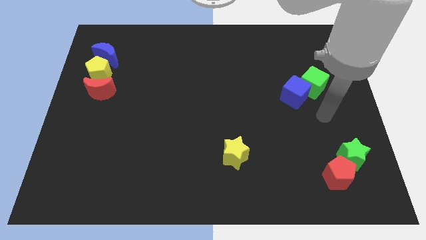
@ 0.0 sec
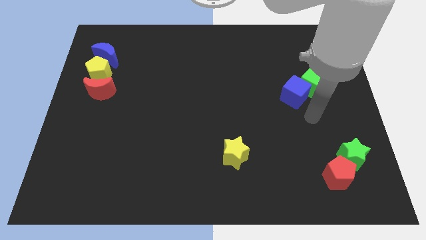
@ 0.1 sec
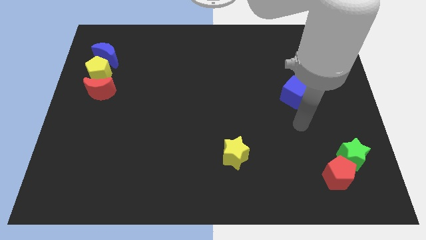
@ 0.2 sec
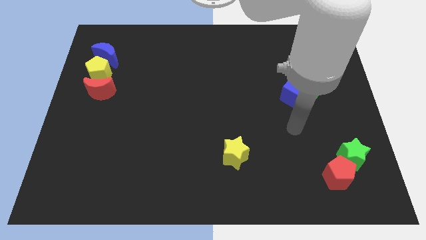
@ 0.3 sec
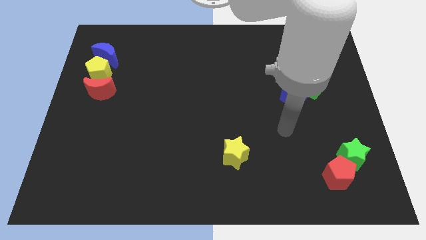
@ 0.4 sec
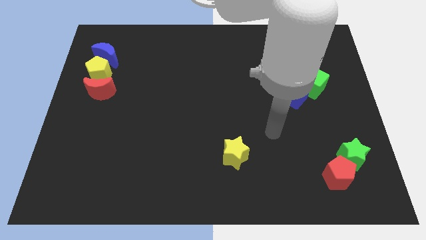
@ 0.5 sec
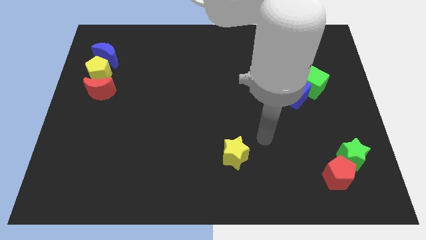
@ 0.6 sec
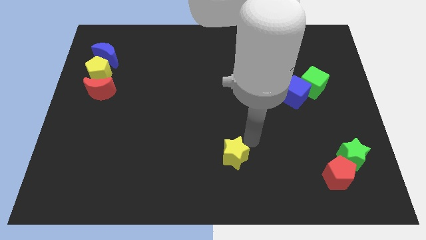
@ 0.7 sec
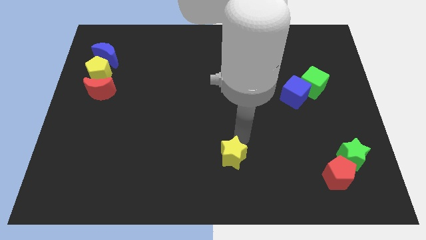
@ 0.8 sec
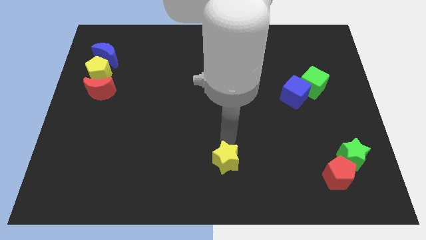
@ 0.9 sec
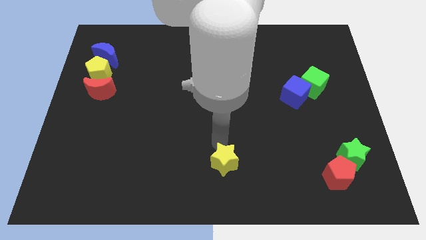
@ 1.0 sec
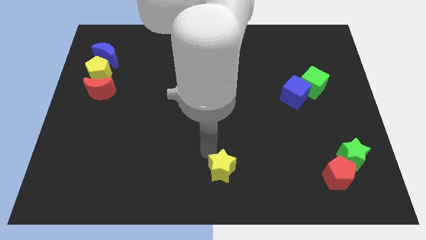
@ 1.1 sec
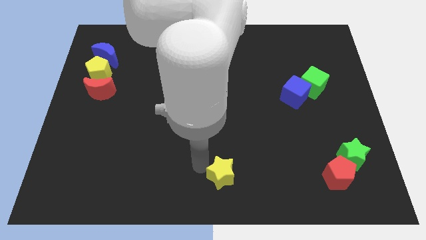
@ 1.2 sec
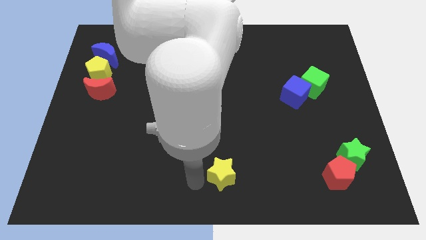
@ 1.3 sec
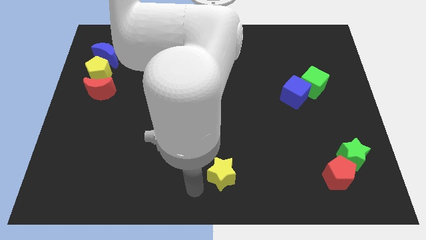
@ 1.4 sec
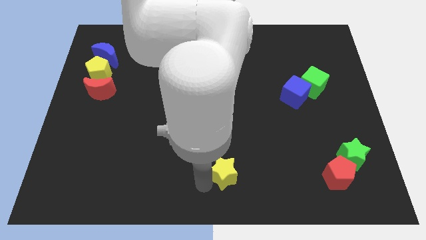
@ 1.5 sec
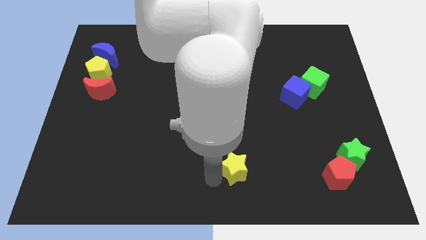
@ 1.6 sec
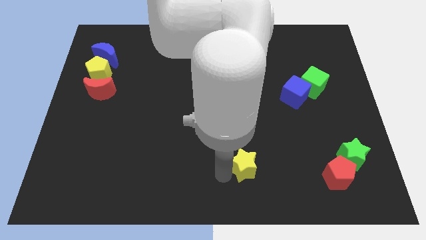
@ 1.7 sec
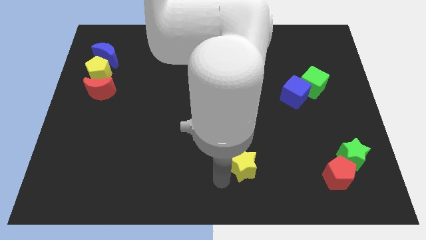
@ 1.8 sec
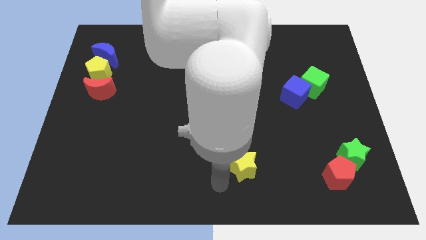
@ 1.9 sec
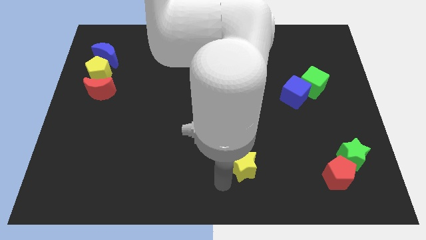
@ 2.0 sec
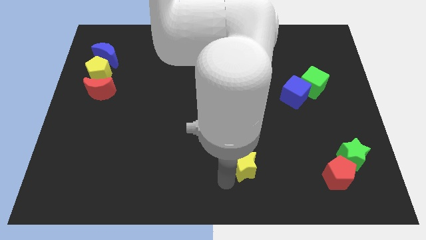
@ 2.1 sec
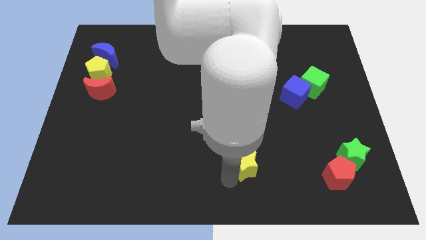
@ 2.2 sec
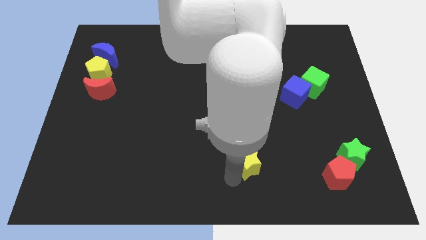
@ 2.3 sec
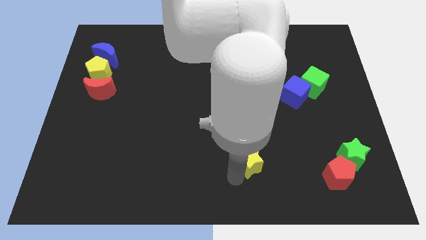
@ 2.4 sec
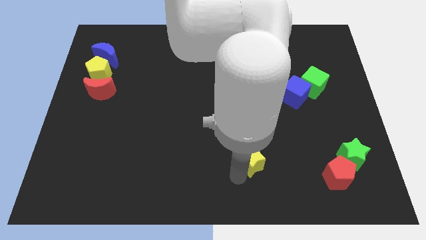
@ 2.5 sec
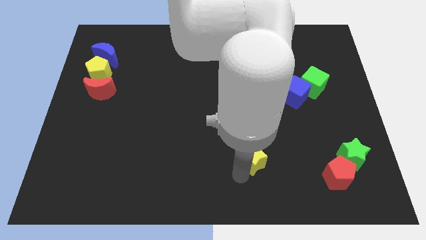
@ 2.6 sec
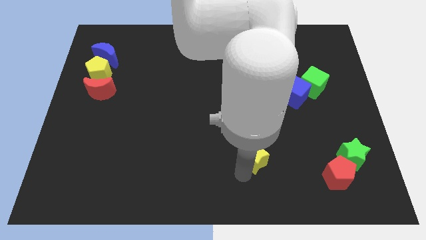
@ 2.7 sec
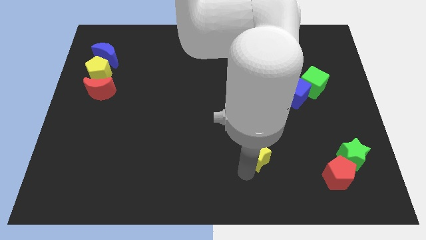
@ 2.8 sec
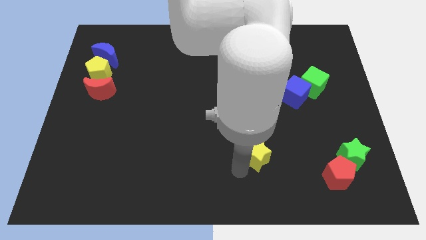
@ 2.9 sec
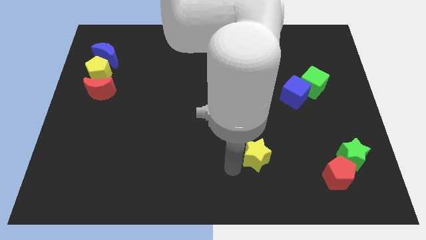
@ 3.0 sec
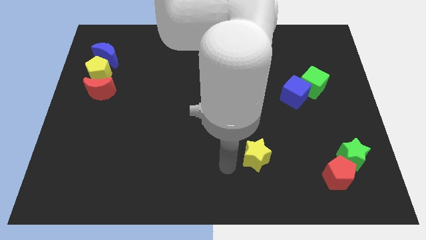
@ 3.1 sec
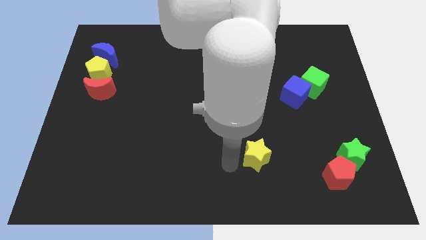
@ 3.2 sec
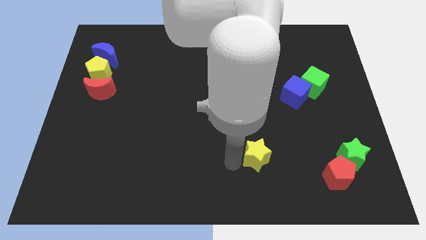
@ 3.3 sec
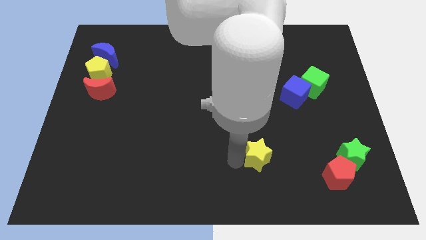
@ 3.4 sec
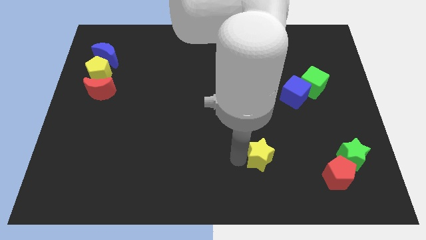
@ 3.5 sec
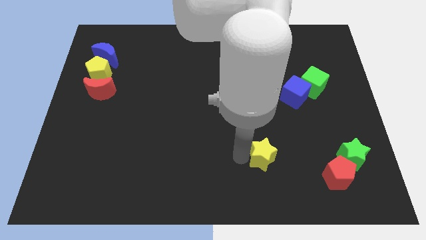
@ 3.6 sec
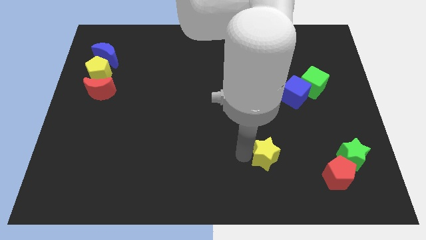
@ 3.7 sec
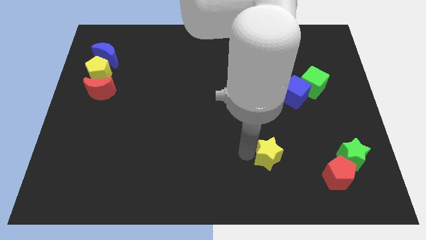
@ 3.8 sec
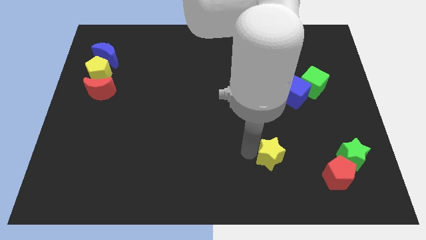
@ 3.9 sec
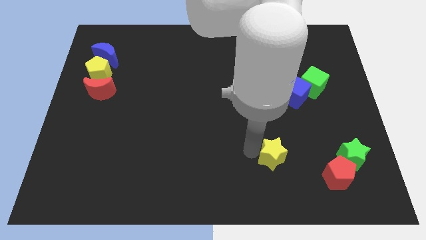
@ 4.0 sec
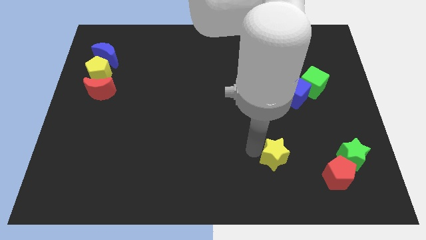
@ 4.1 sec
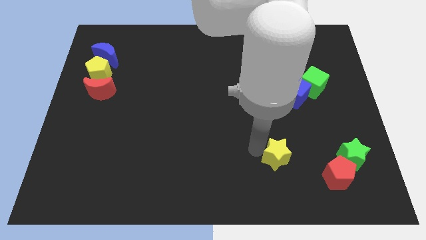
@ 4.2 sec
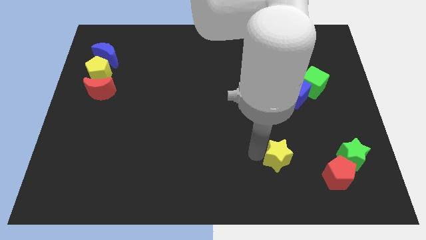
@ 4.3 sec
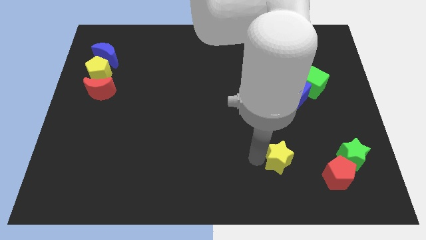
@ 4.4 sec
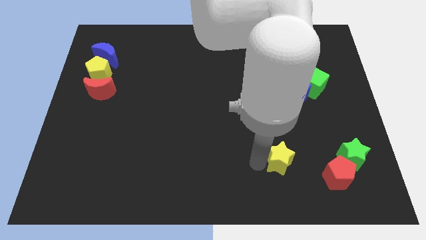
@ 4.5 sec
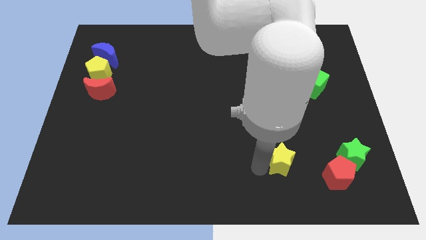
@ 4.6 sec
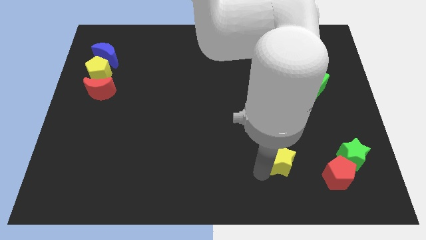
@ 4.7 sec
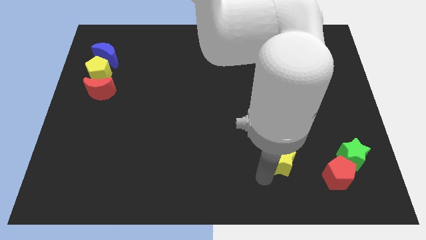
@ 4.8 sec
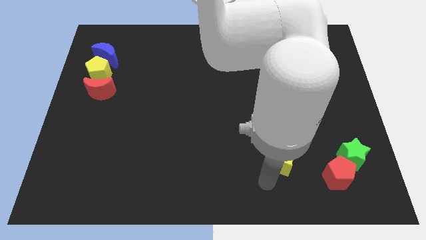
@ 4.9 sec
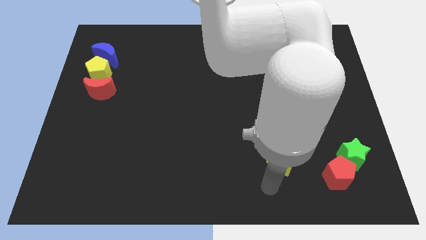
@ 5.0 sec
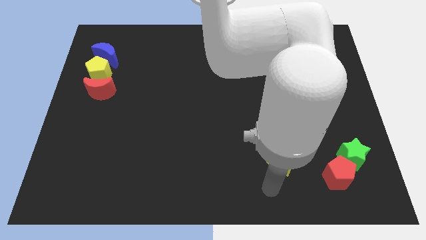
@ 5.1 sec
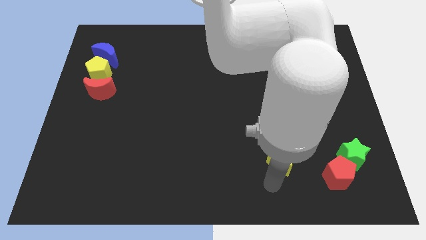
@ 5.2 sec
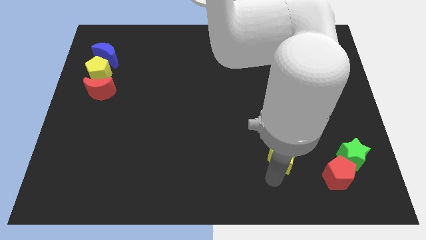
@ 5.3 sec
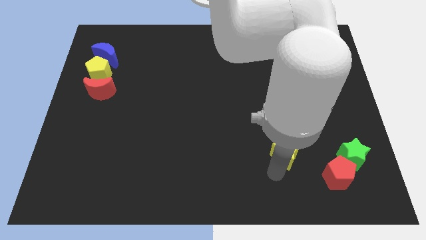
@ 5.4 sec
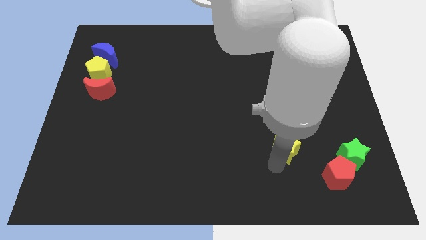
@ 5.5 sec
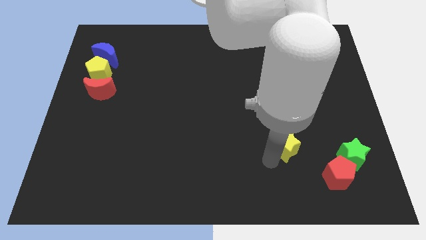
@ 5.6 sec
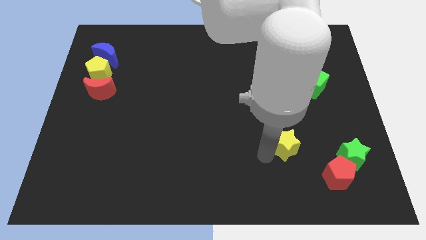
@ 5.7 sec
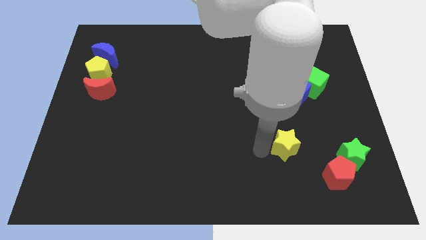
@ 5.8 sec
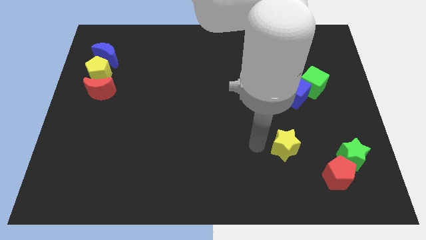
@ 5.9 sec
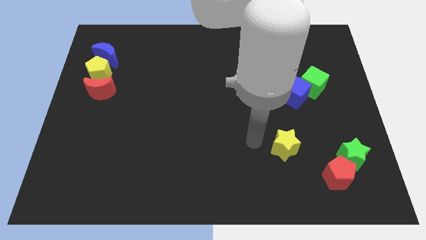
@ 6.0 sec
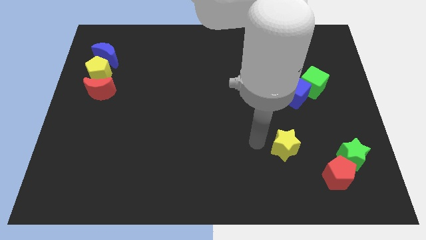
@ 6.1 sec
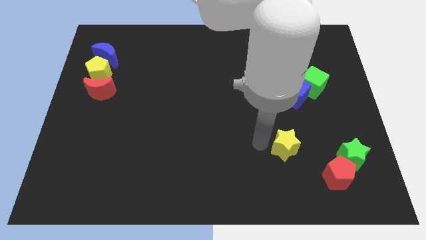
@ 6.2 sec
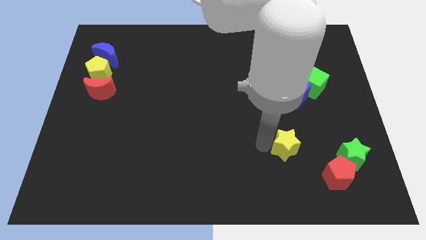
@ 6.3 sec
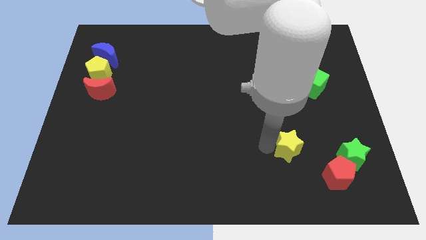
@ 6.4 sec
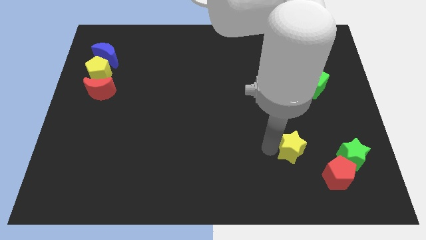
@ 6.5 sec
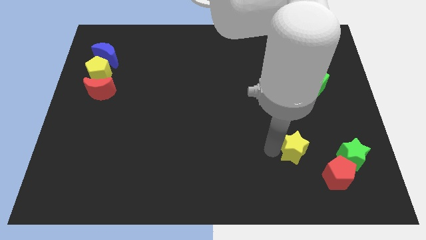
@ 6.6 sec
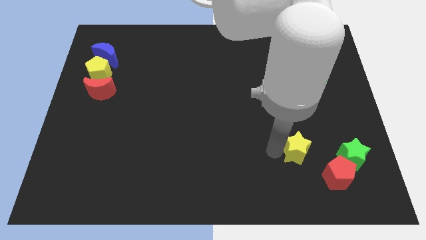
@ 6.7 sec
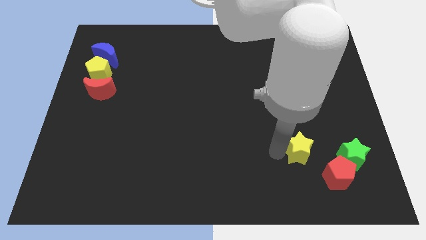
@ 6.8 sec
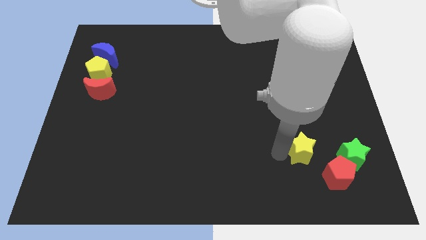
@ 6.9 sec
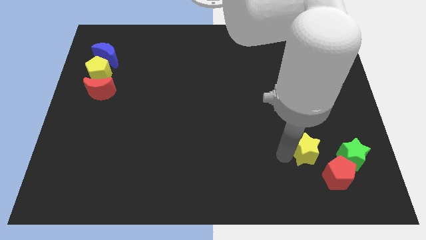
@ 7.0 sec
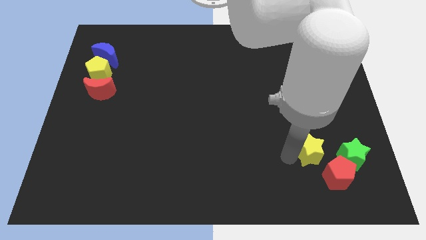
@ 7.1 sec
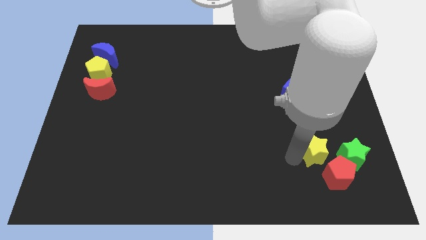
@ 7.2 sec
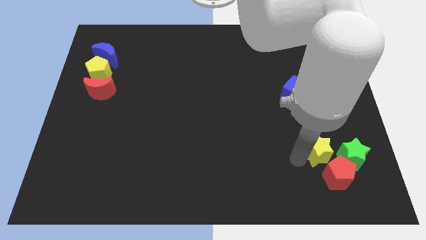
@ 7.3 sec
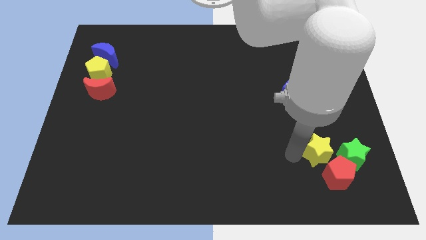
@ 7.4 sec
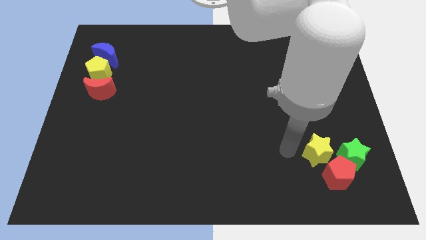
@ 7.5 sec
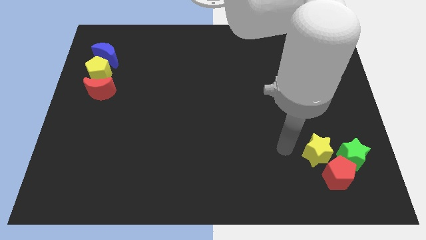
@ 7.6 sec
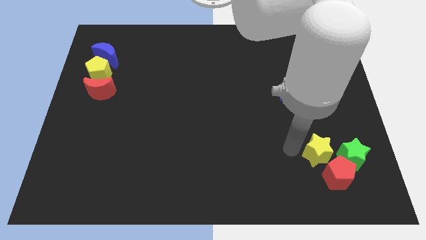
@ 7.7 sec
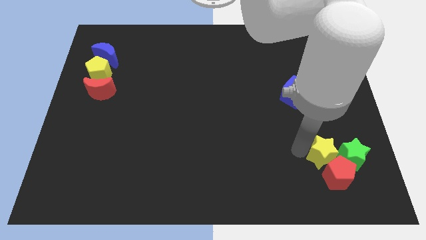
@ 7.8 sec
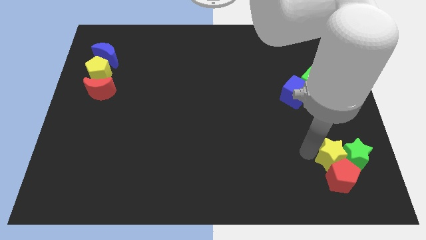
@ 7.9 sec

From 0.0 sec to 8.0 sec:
push the yellow star close to the green star
